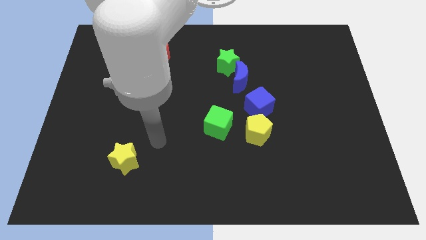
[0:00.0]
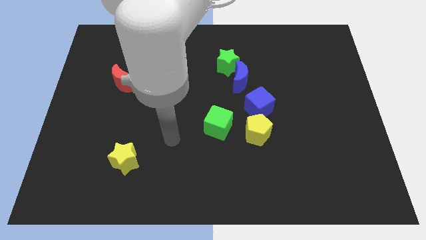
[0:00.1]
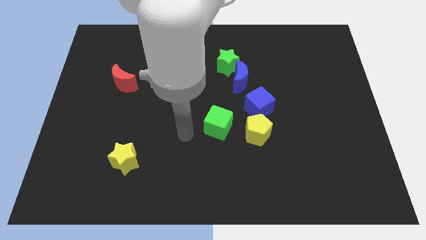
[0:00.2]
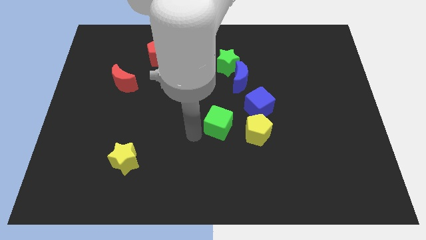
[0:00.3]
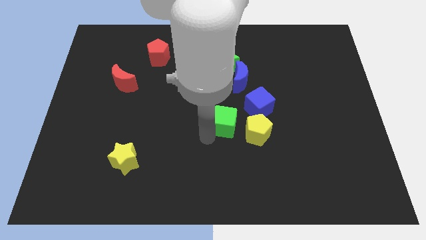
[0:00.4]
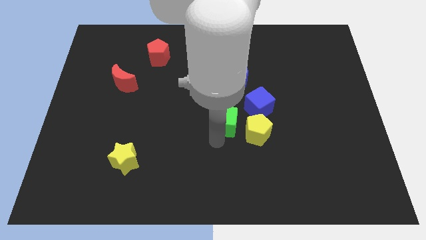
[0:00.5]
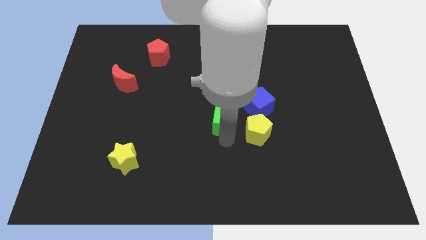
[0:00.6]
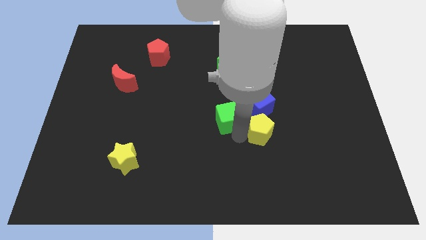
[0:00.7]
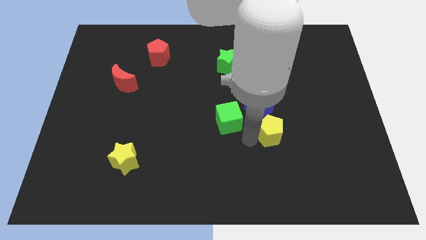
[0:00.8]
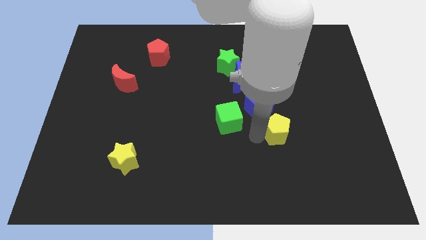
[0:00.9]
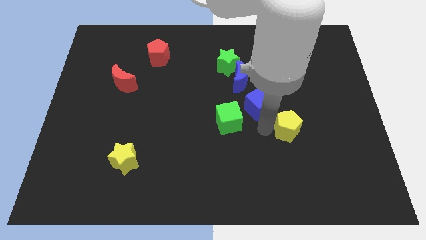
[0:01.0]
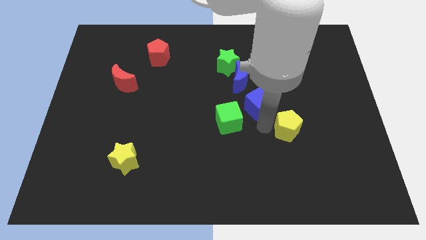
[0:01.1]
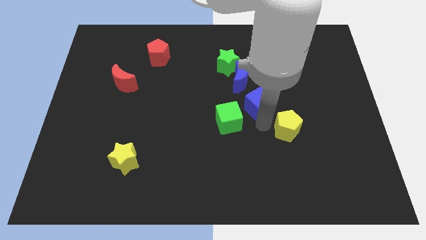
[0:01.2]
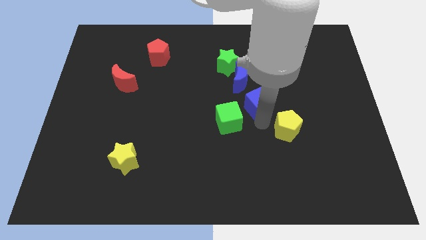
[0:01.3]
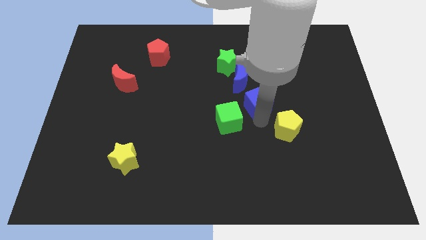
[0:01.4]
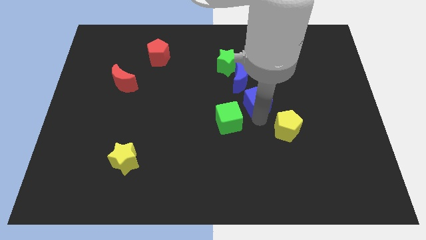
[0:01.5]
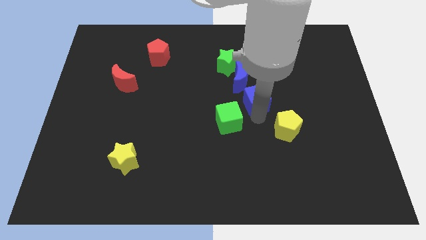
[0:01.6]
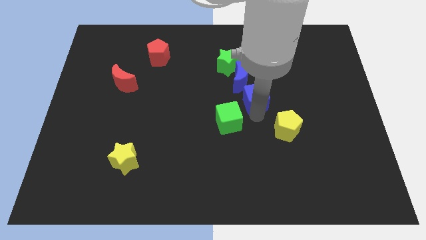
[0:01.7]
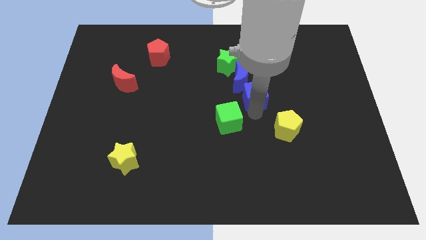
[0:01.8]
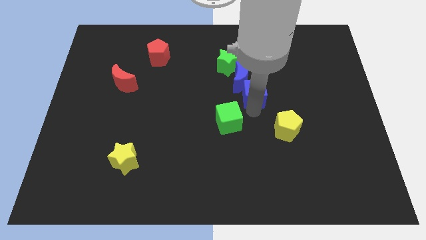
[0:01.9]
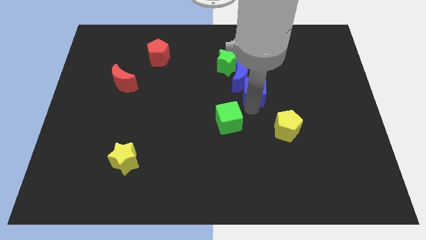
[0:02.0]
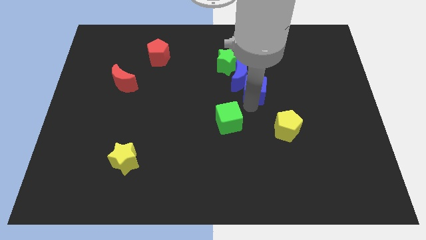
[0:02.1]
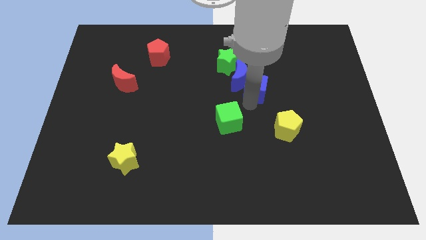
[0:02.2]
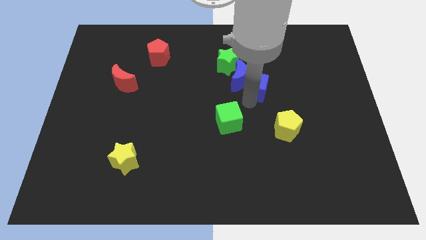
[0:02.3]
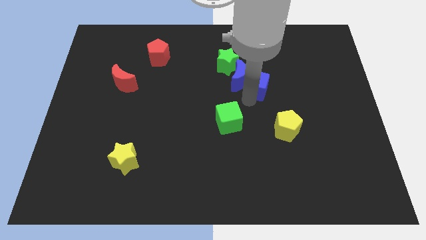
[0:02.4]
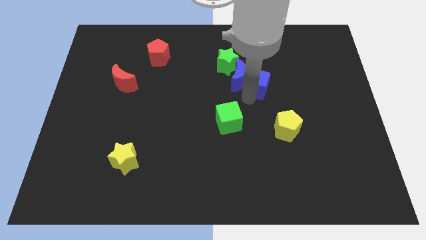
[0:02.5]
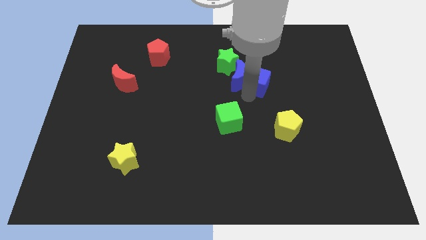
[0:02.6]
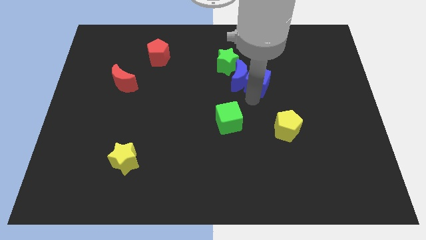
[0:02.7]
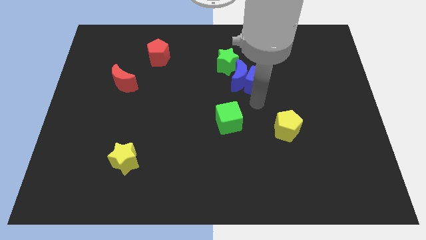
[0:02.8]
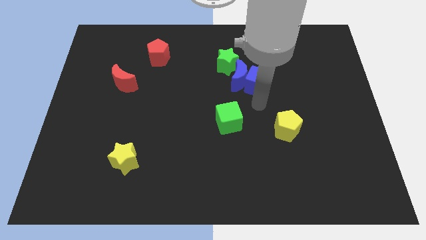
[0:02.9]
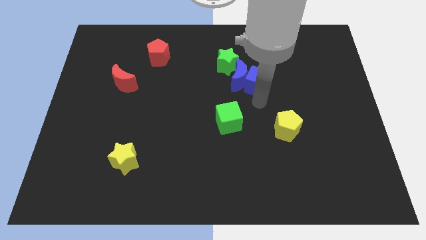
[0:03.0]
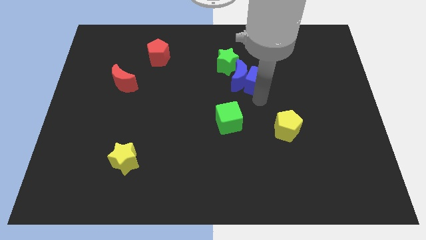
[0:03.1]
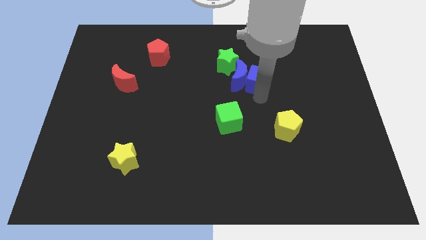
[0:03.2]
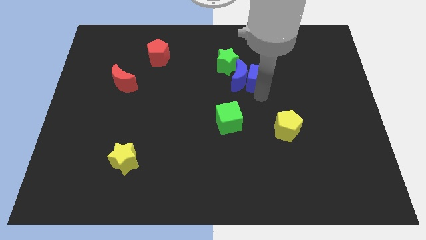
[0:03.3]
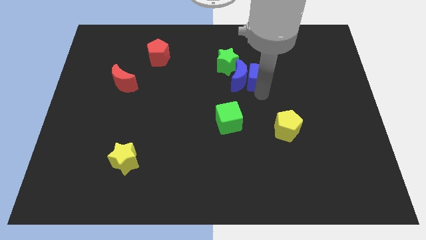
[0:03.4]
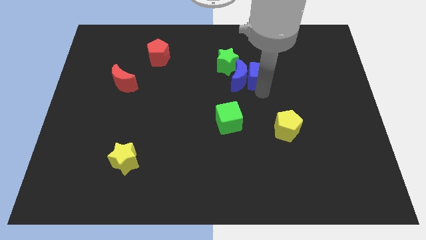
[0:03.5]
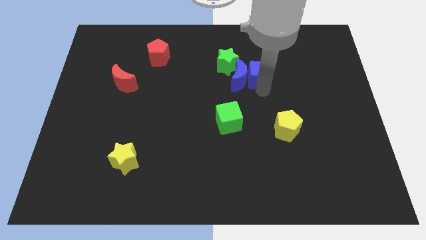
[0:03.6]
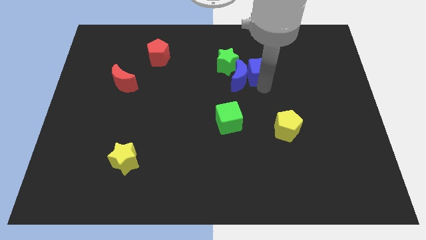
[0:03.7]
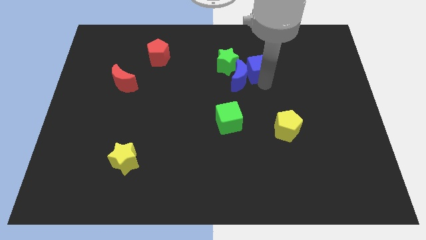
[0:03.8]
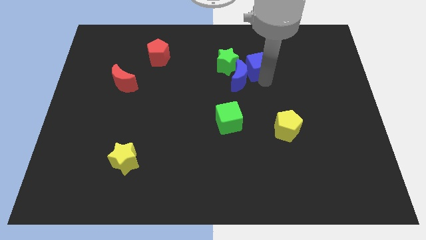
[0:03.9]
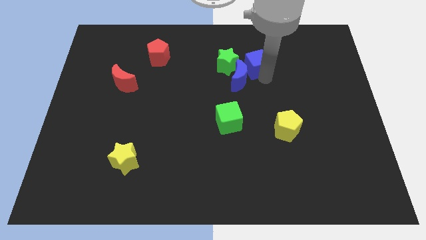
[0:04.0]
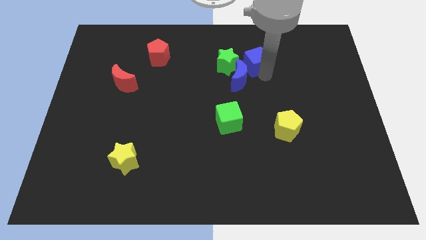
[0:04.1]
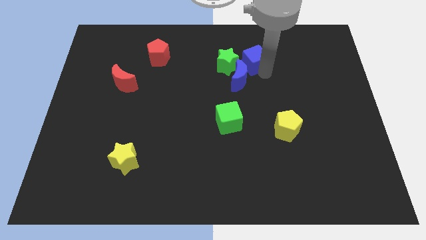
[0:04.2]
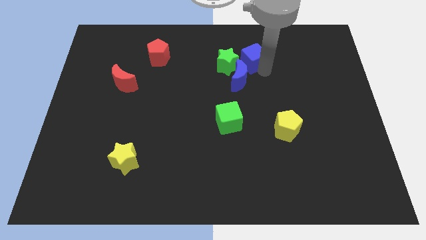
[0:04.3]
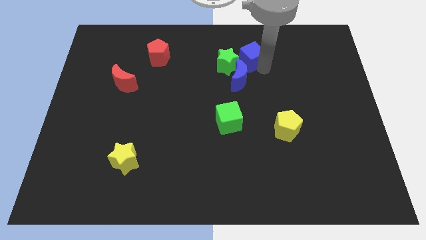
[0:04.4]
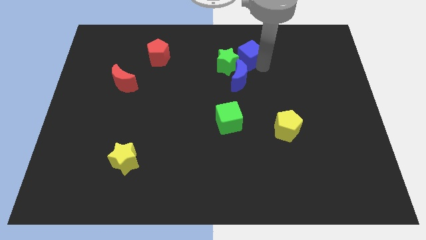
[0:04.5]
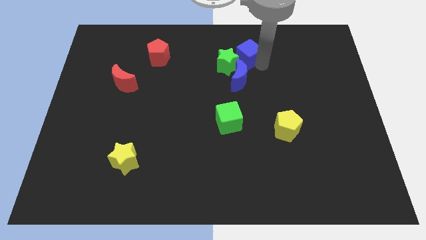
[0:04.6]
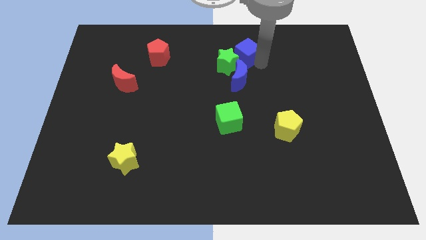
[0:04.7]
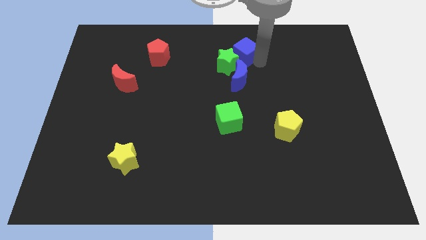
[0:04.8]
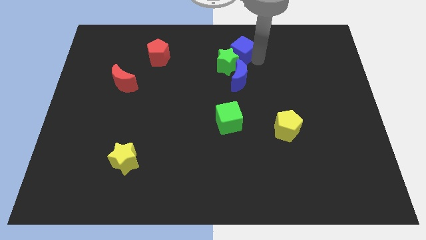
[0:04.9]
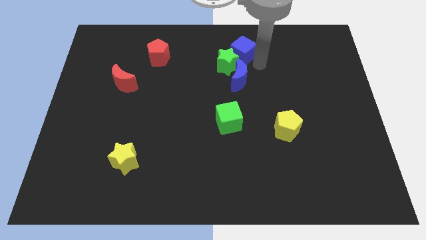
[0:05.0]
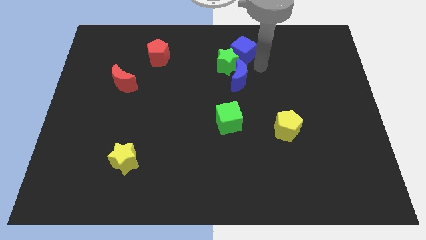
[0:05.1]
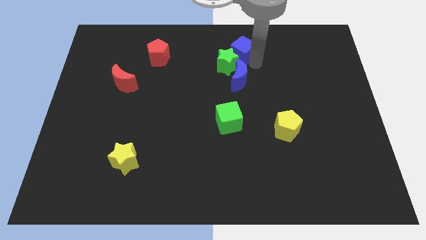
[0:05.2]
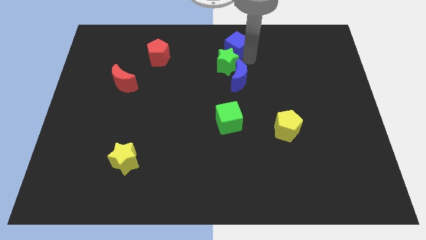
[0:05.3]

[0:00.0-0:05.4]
slide the blue cube to the top

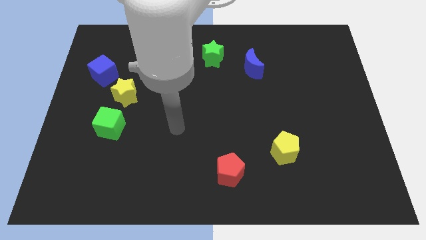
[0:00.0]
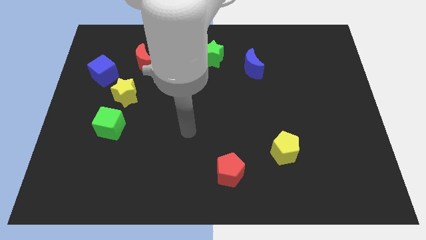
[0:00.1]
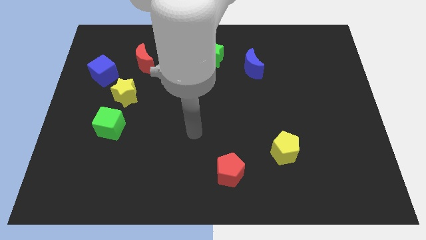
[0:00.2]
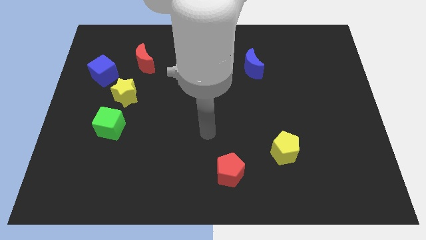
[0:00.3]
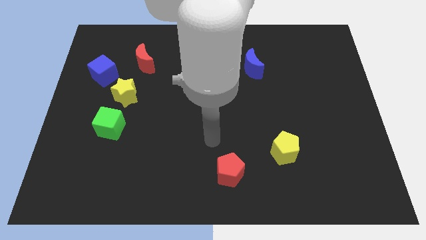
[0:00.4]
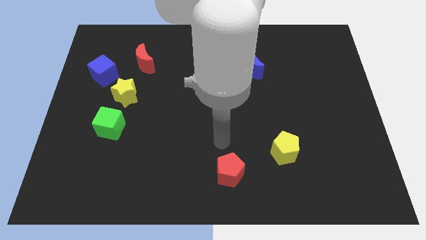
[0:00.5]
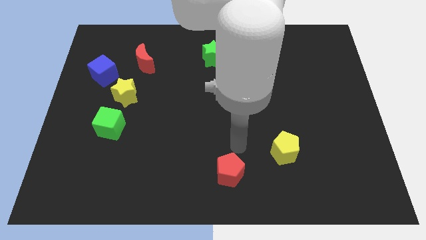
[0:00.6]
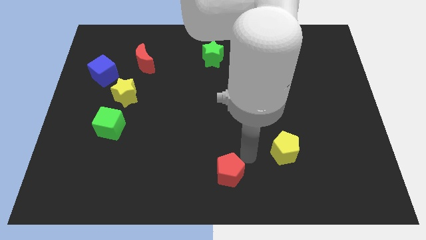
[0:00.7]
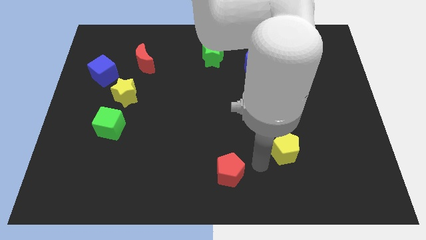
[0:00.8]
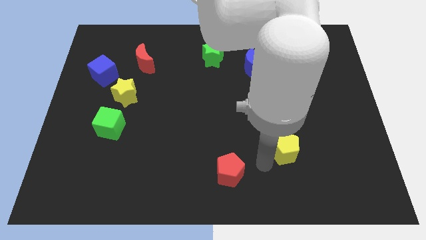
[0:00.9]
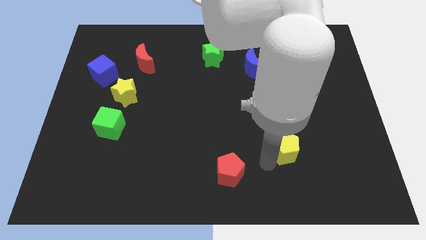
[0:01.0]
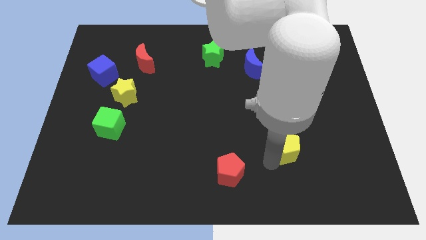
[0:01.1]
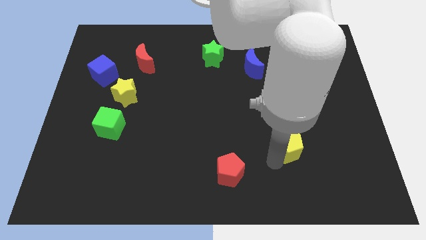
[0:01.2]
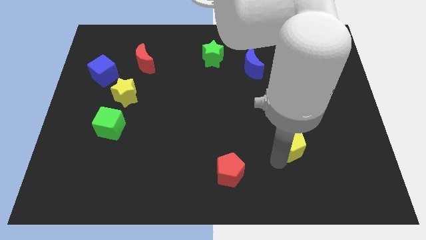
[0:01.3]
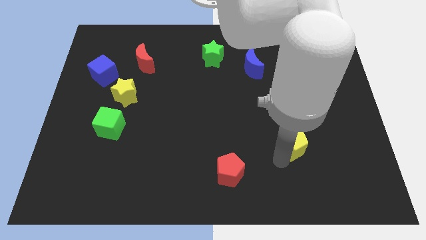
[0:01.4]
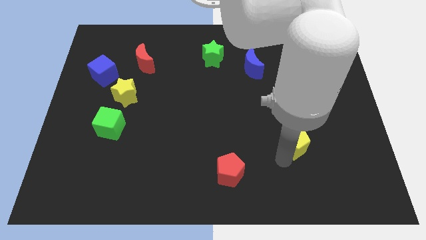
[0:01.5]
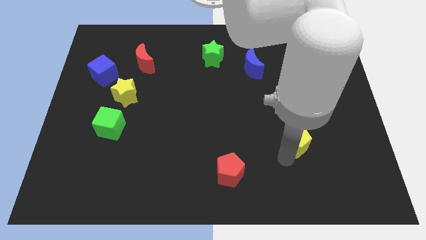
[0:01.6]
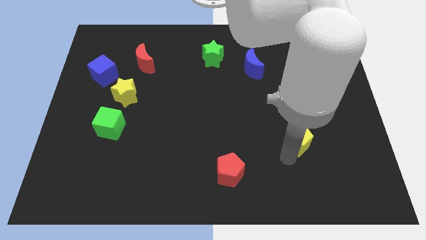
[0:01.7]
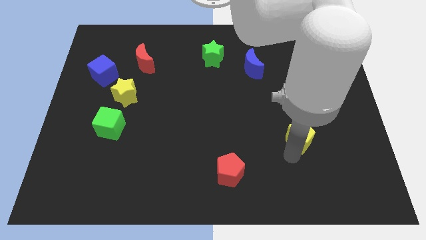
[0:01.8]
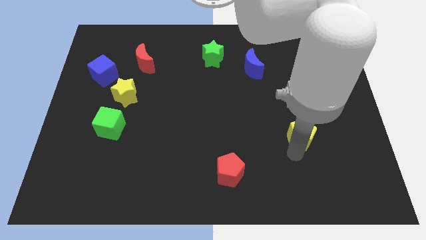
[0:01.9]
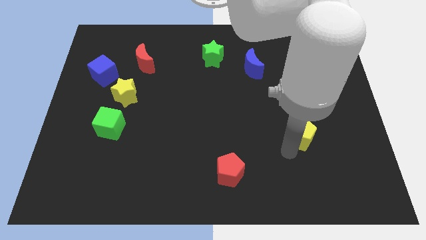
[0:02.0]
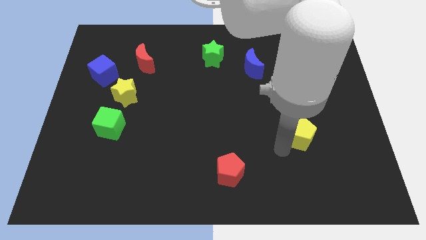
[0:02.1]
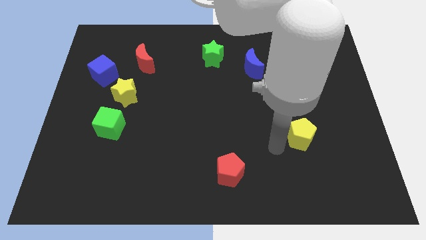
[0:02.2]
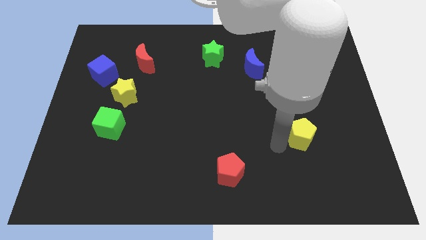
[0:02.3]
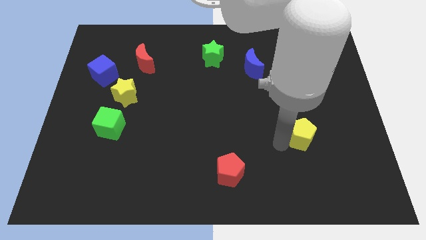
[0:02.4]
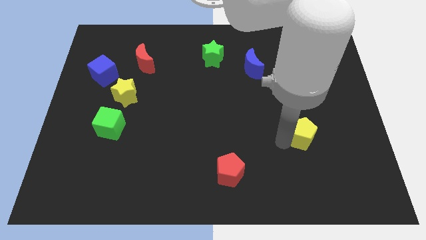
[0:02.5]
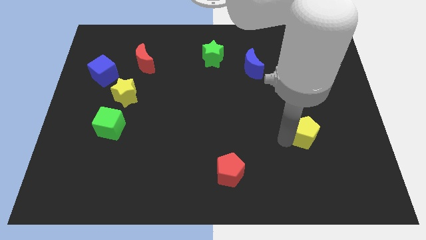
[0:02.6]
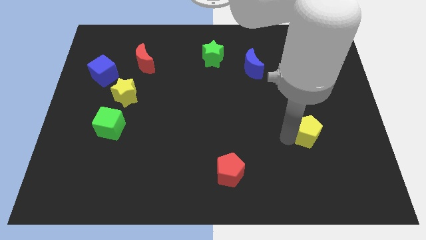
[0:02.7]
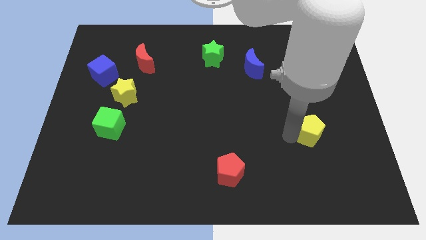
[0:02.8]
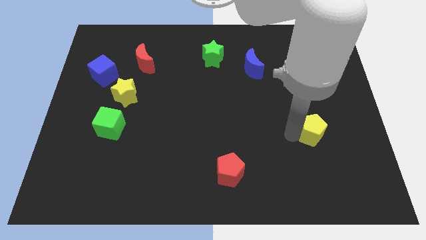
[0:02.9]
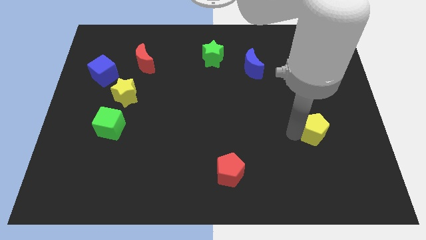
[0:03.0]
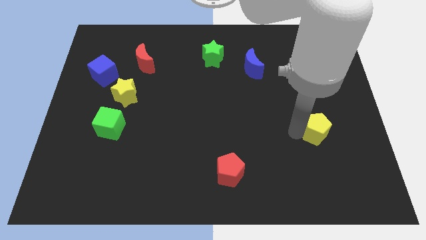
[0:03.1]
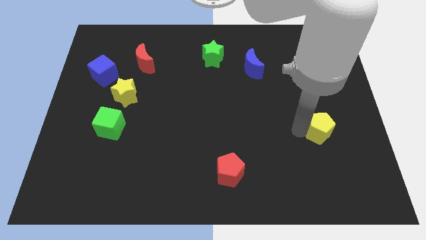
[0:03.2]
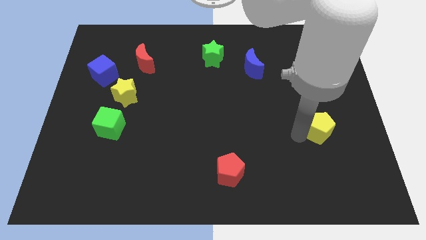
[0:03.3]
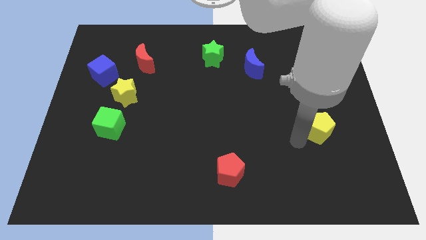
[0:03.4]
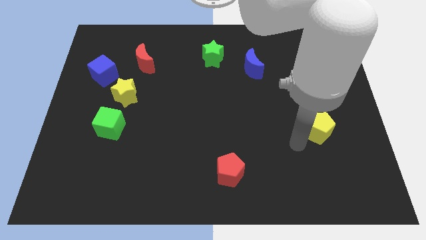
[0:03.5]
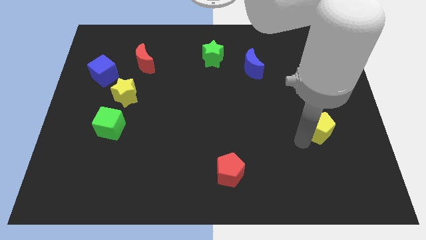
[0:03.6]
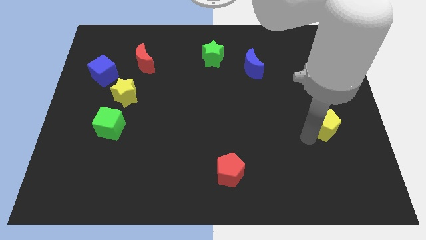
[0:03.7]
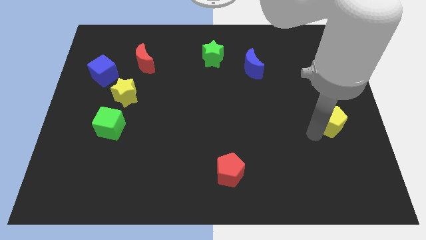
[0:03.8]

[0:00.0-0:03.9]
slide the yellow pentagon to the right side of the board
